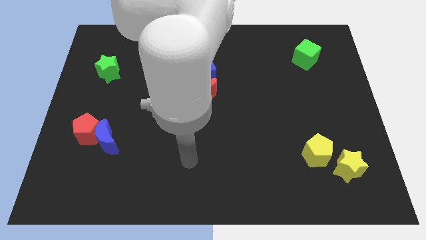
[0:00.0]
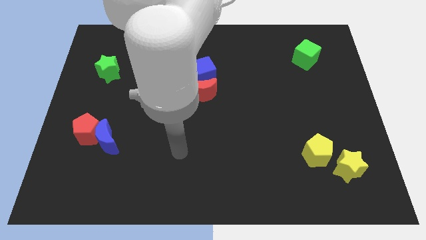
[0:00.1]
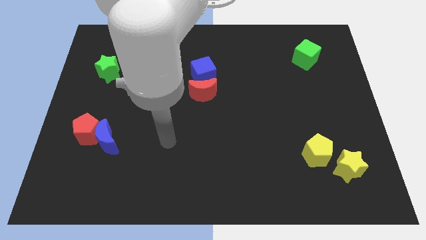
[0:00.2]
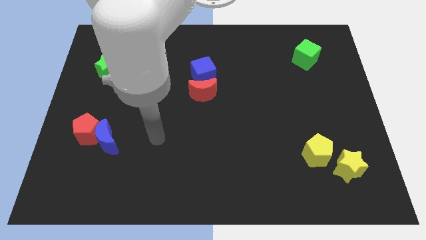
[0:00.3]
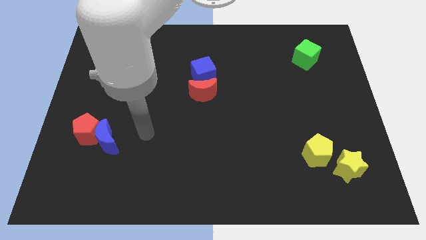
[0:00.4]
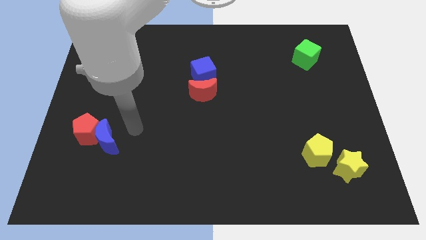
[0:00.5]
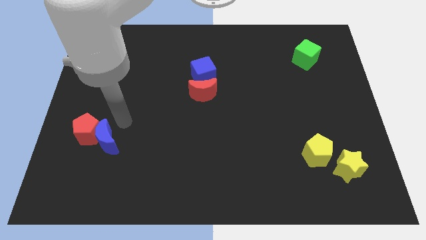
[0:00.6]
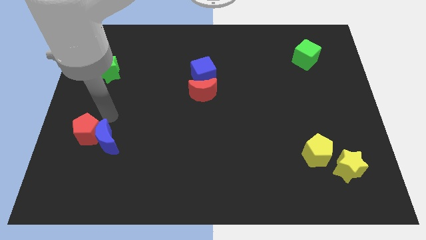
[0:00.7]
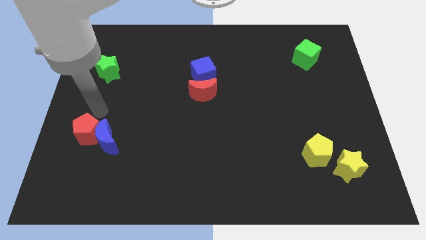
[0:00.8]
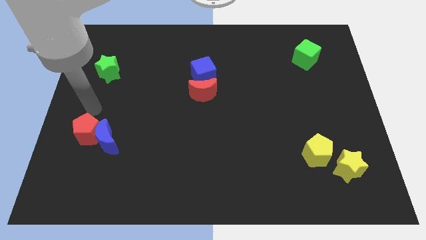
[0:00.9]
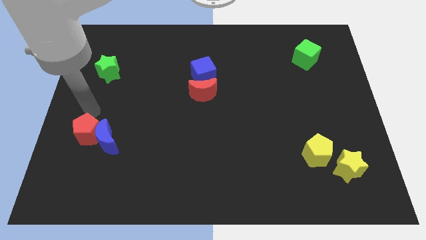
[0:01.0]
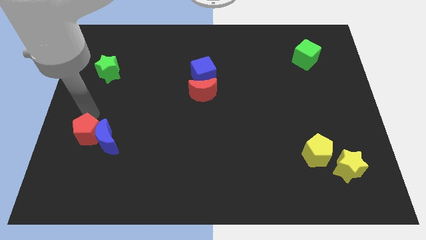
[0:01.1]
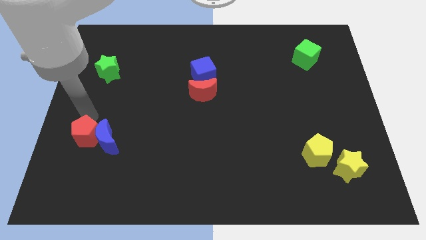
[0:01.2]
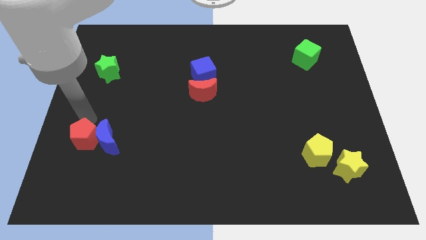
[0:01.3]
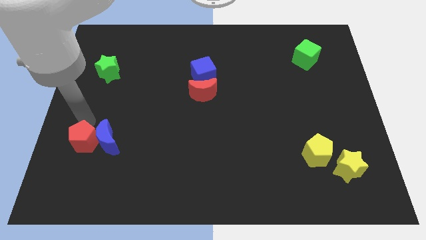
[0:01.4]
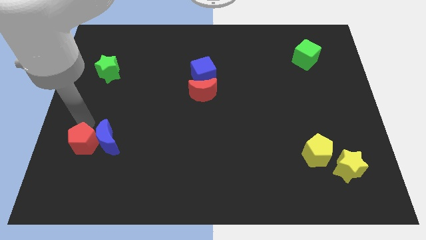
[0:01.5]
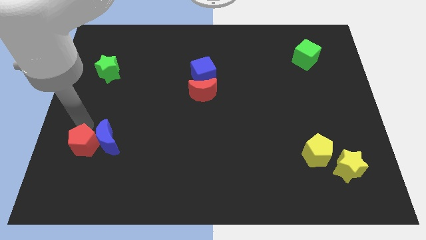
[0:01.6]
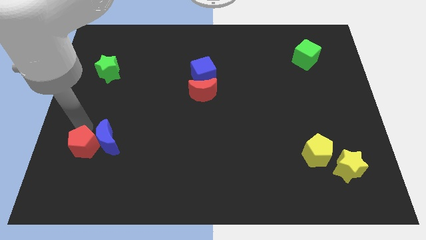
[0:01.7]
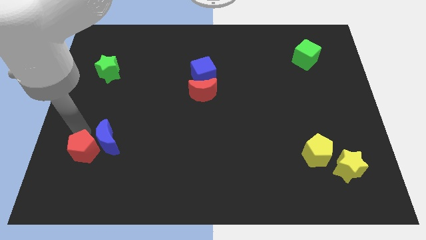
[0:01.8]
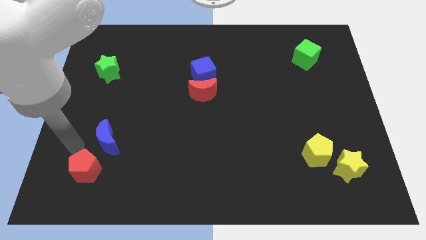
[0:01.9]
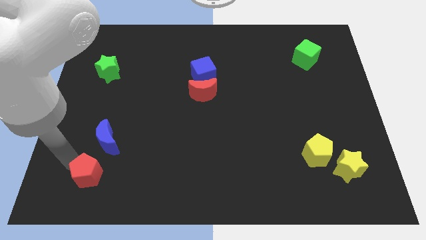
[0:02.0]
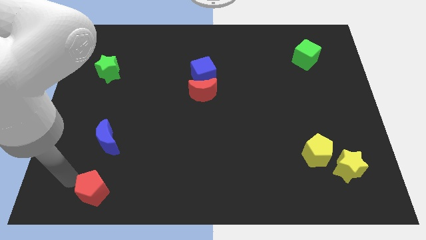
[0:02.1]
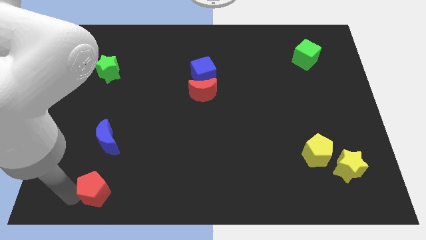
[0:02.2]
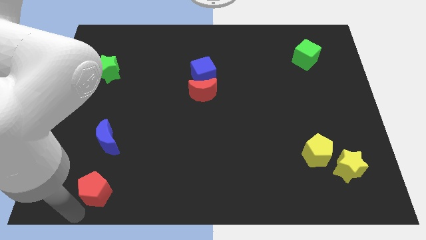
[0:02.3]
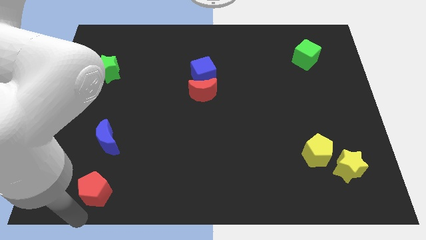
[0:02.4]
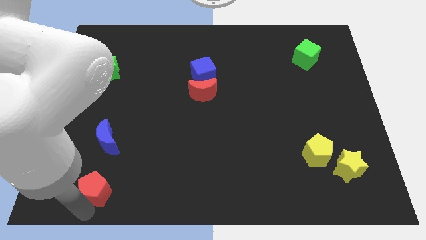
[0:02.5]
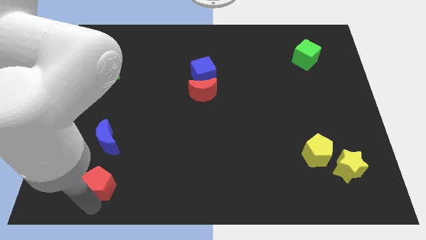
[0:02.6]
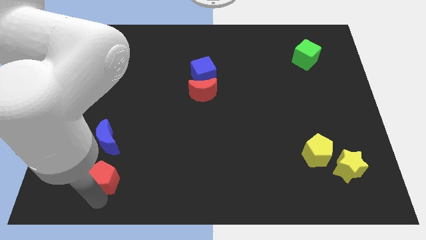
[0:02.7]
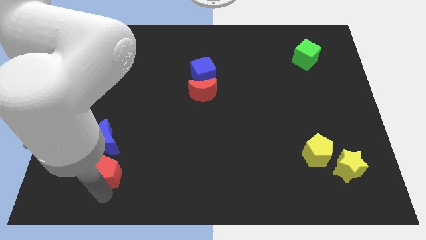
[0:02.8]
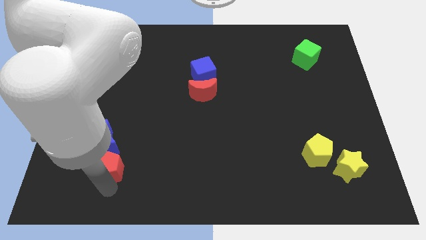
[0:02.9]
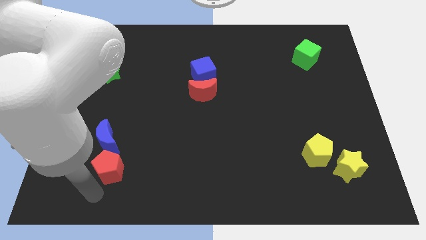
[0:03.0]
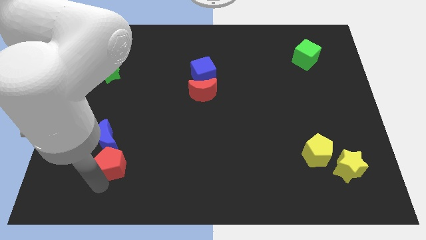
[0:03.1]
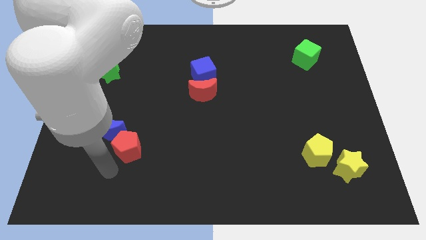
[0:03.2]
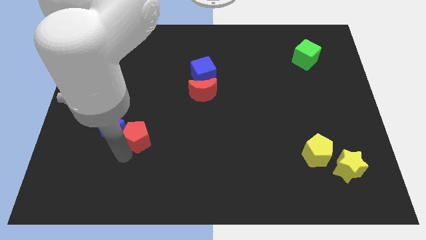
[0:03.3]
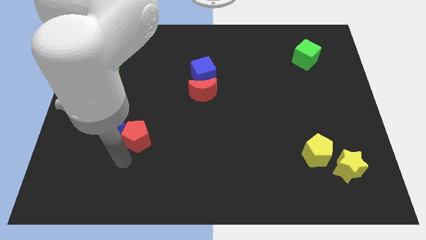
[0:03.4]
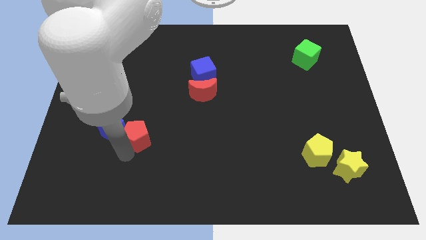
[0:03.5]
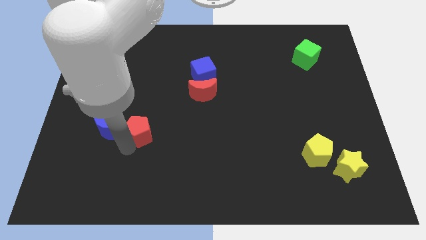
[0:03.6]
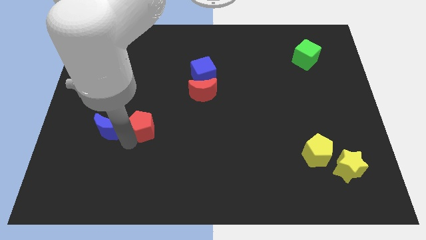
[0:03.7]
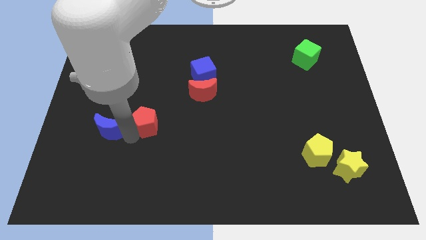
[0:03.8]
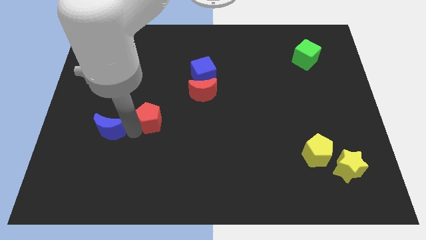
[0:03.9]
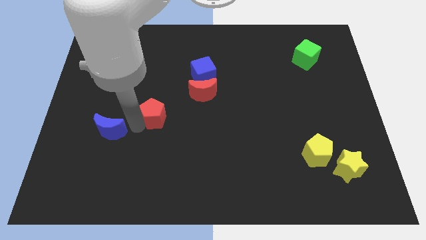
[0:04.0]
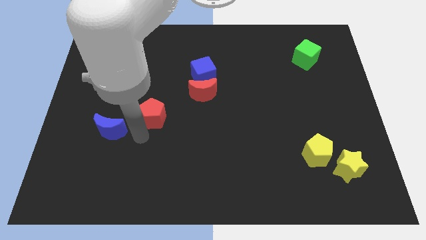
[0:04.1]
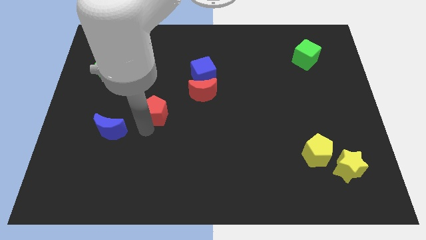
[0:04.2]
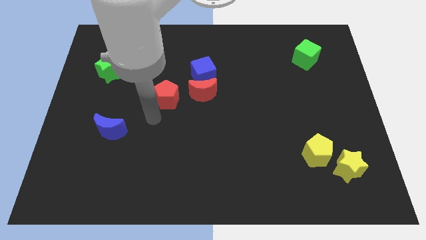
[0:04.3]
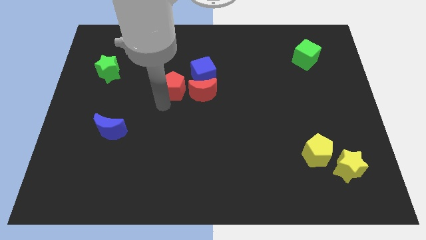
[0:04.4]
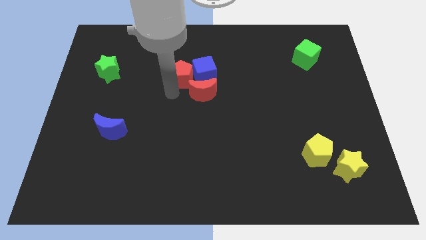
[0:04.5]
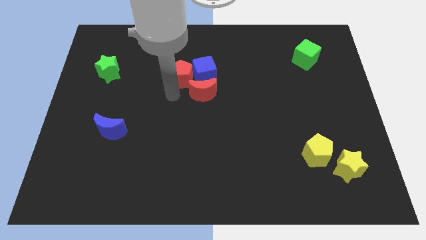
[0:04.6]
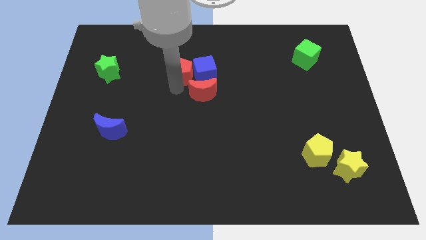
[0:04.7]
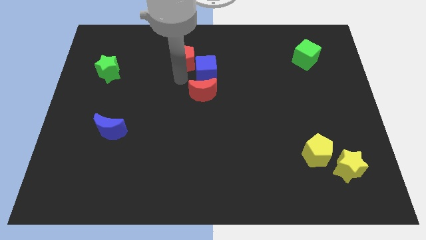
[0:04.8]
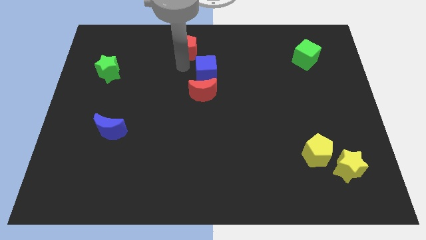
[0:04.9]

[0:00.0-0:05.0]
slide the red pentagon to the top

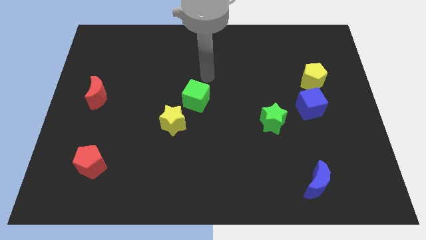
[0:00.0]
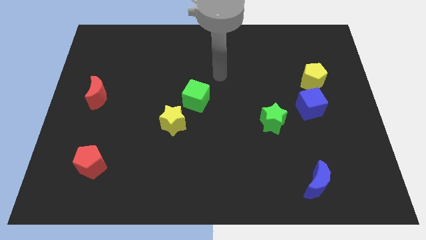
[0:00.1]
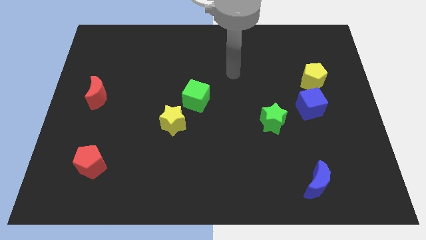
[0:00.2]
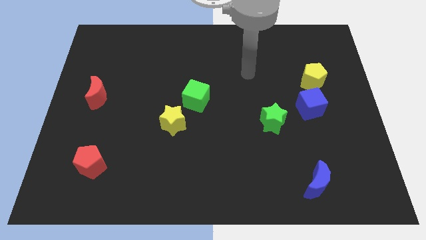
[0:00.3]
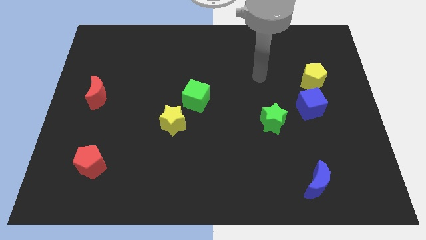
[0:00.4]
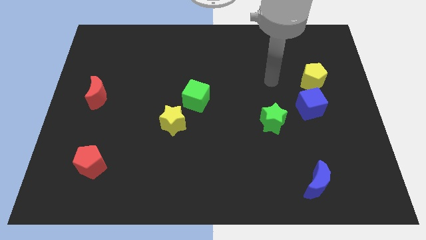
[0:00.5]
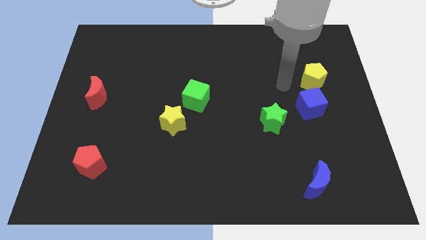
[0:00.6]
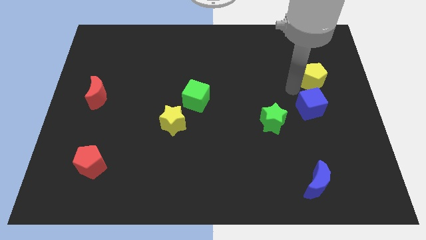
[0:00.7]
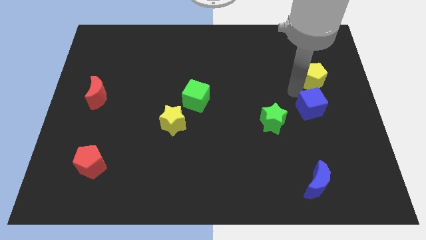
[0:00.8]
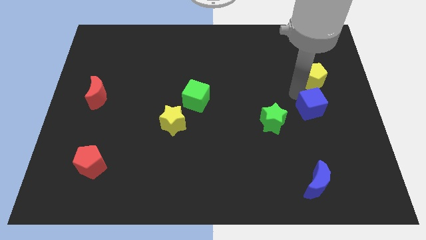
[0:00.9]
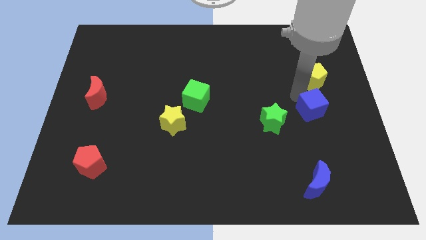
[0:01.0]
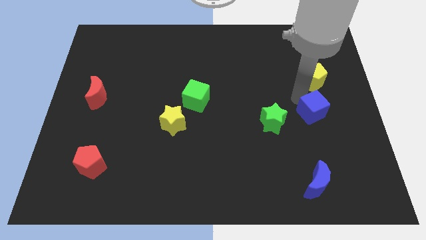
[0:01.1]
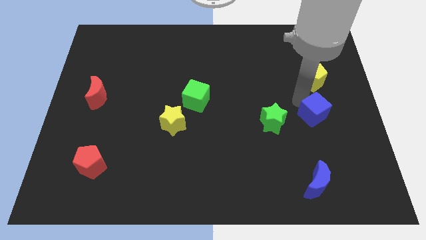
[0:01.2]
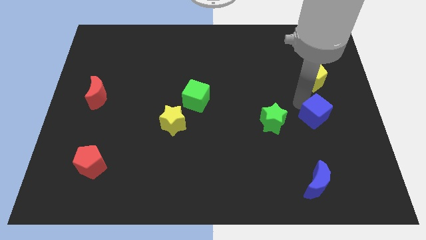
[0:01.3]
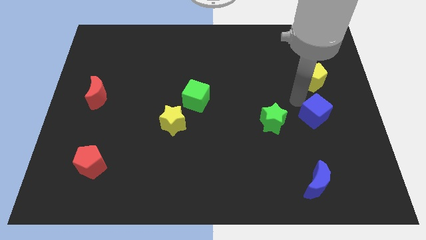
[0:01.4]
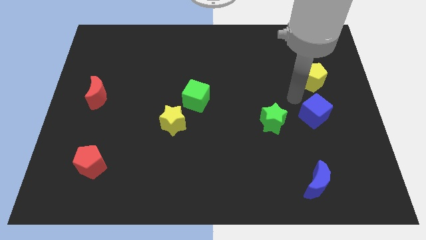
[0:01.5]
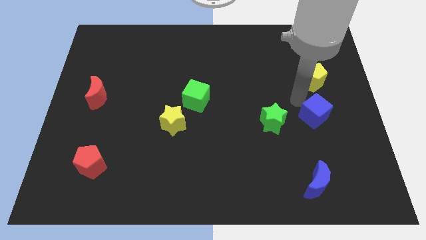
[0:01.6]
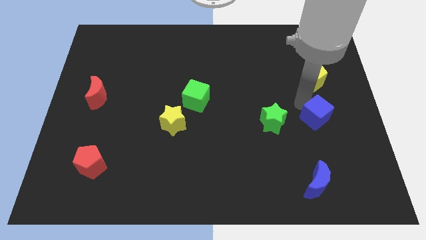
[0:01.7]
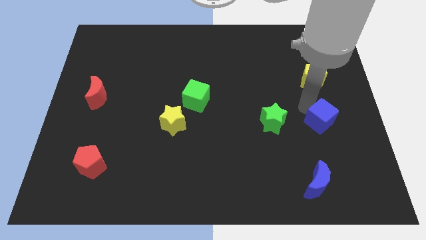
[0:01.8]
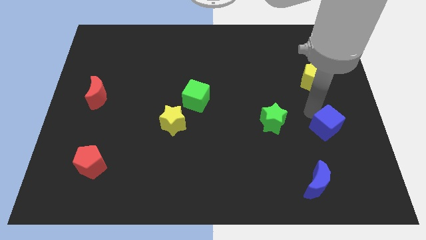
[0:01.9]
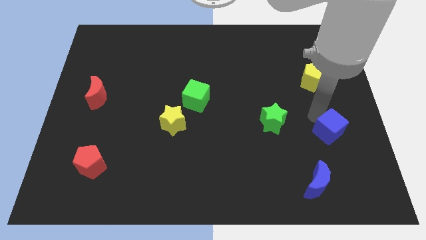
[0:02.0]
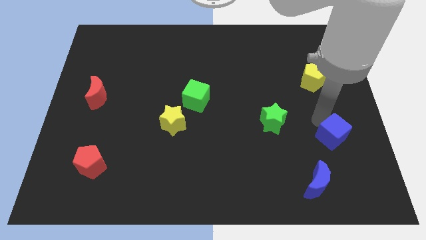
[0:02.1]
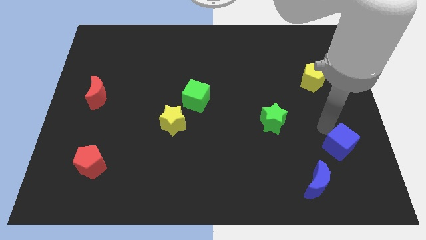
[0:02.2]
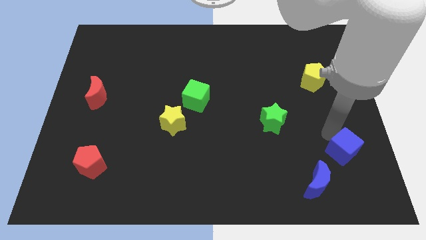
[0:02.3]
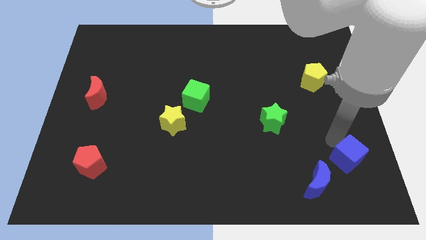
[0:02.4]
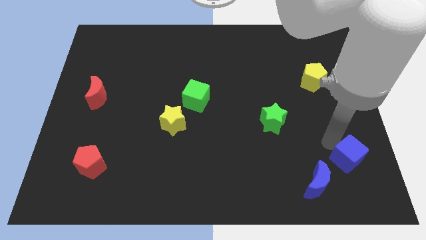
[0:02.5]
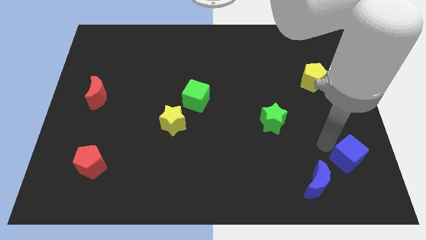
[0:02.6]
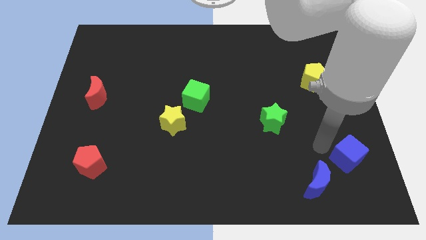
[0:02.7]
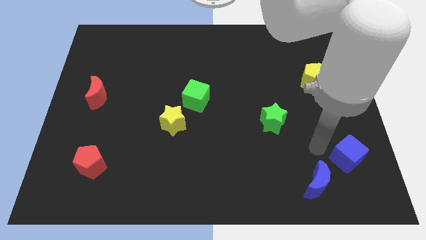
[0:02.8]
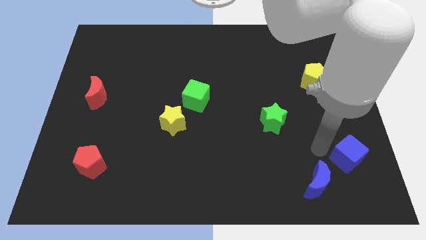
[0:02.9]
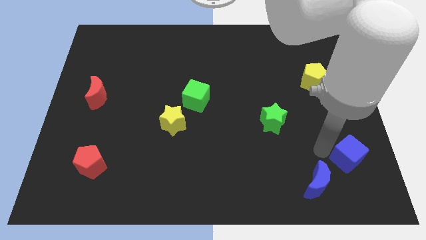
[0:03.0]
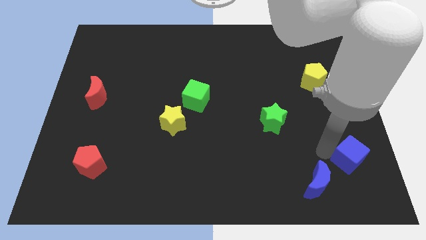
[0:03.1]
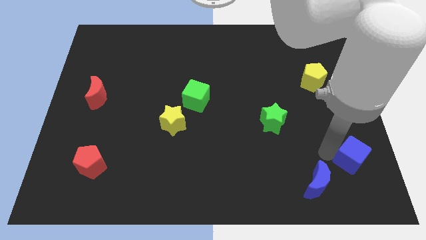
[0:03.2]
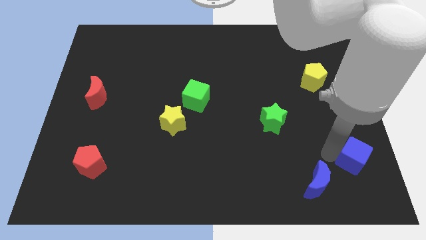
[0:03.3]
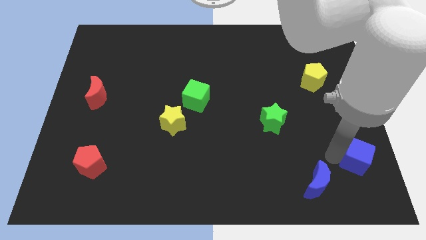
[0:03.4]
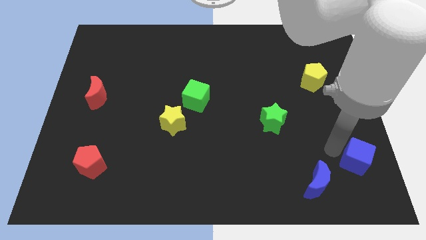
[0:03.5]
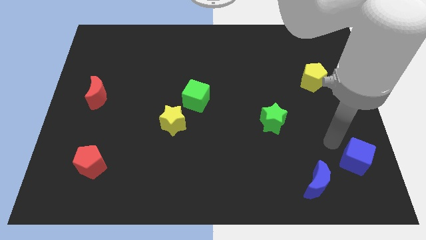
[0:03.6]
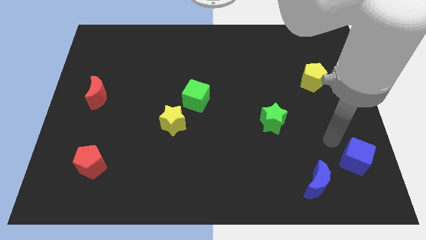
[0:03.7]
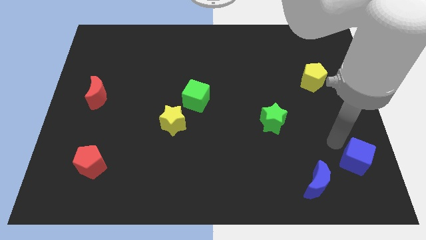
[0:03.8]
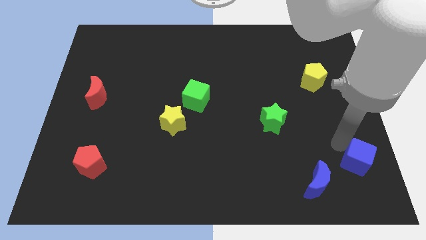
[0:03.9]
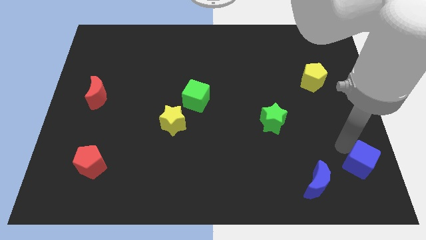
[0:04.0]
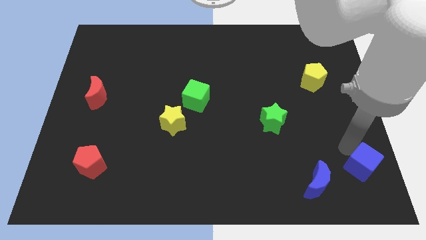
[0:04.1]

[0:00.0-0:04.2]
put the blue cube to the bottom right of the board
